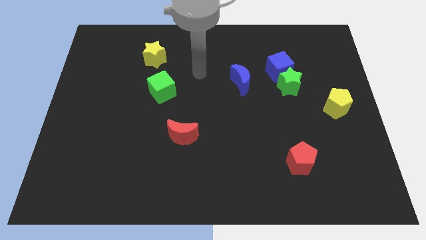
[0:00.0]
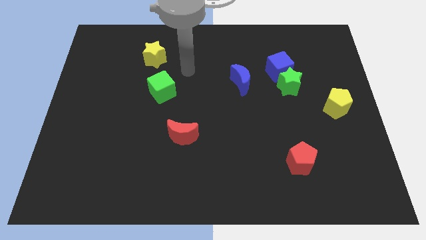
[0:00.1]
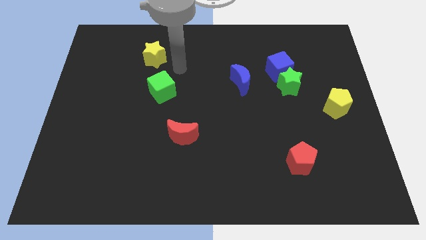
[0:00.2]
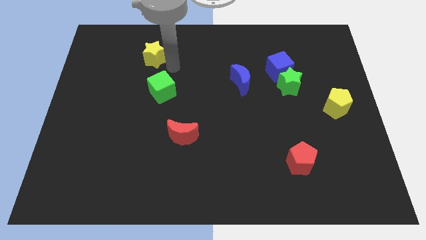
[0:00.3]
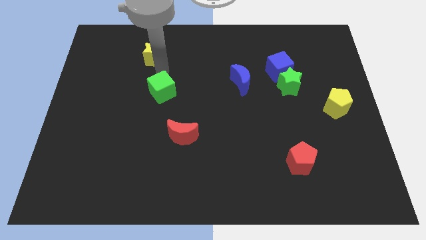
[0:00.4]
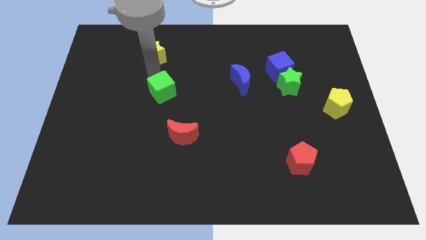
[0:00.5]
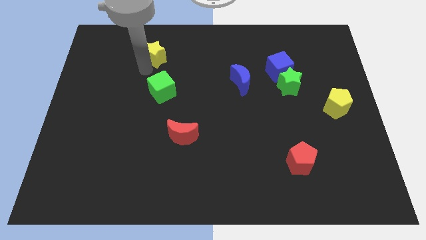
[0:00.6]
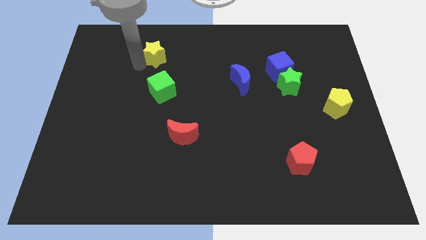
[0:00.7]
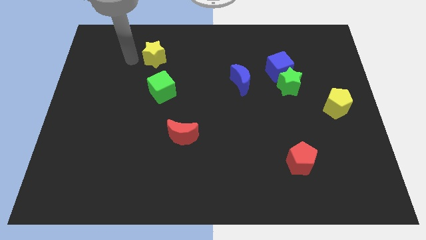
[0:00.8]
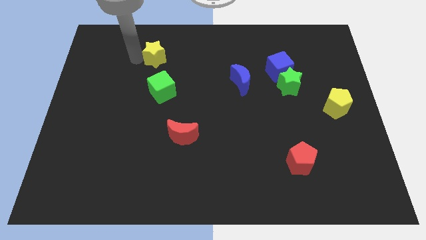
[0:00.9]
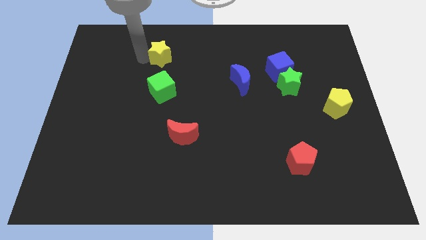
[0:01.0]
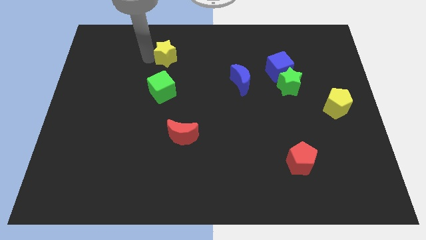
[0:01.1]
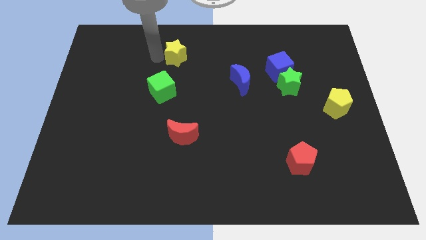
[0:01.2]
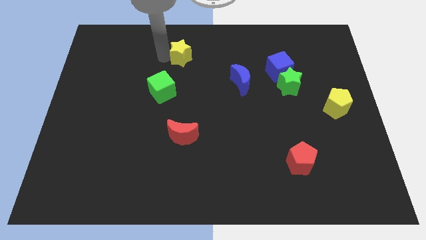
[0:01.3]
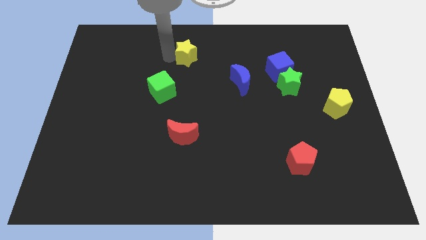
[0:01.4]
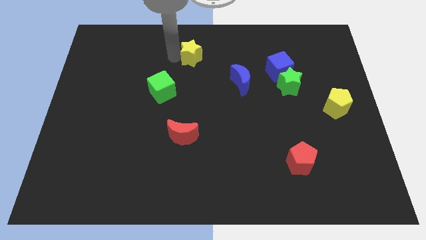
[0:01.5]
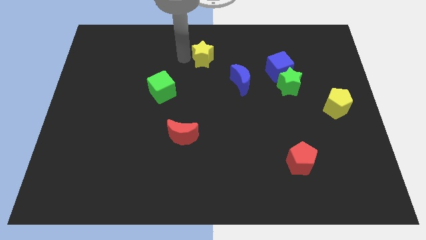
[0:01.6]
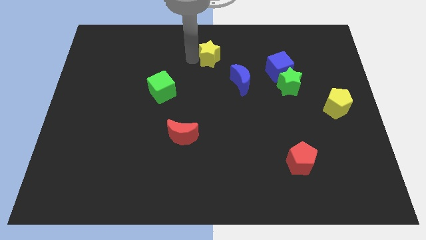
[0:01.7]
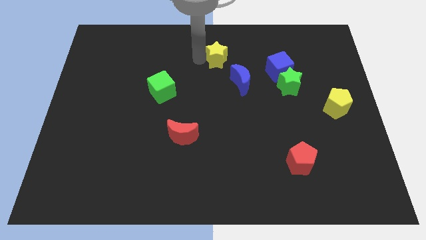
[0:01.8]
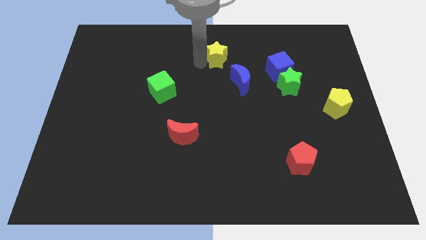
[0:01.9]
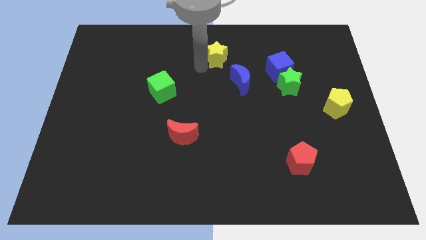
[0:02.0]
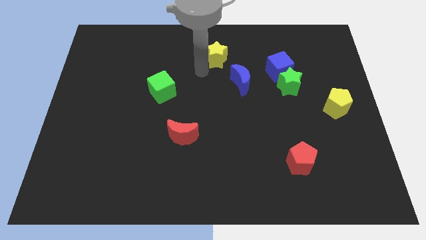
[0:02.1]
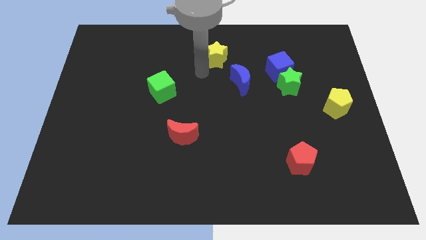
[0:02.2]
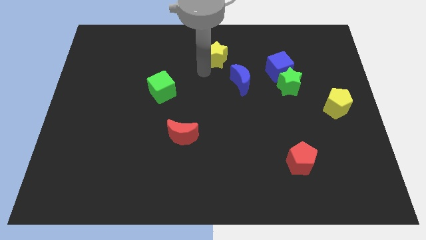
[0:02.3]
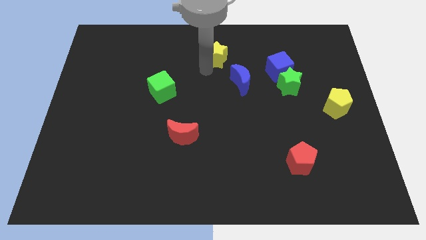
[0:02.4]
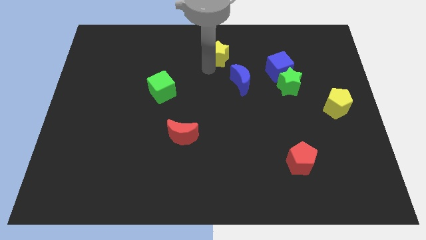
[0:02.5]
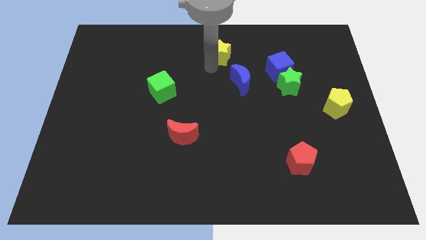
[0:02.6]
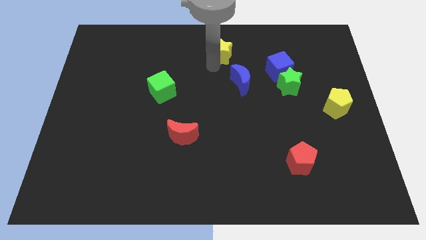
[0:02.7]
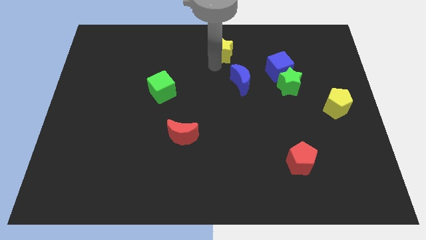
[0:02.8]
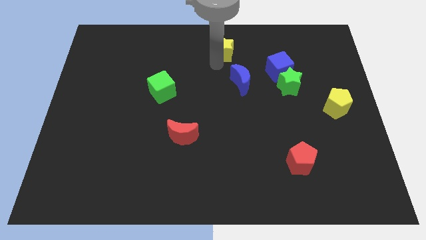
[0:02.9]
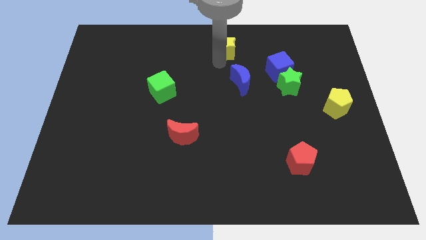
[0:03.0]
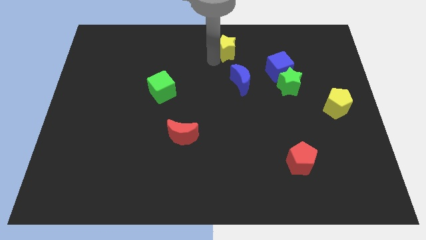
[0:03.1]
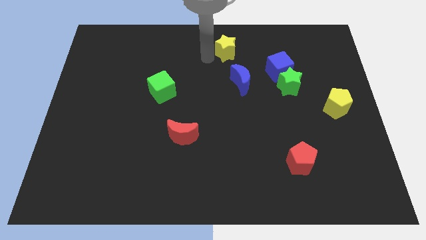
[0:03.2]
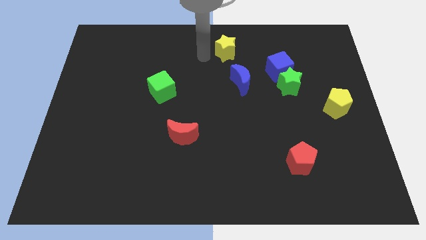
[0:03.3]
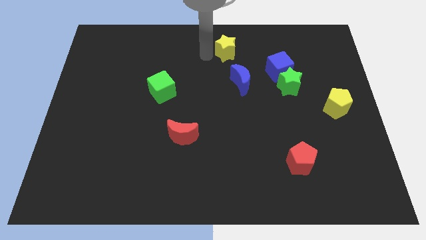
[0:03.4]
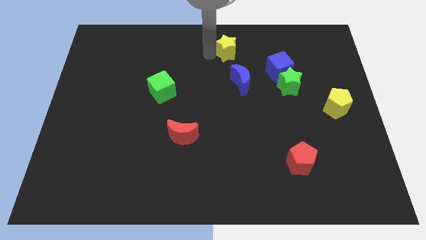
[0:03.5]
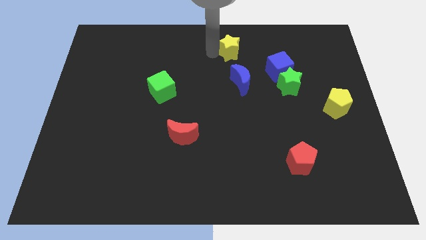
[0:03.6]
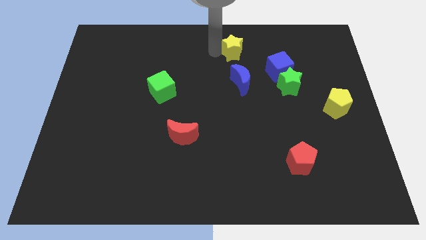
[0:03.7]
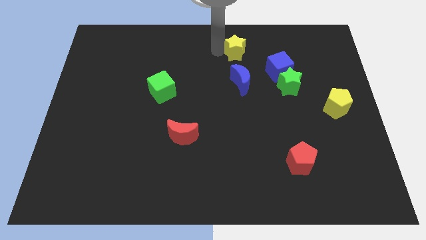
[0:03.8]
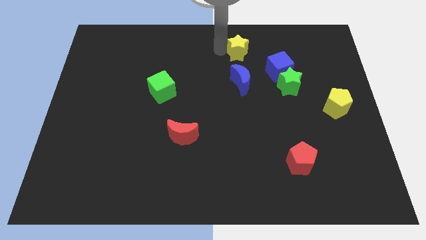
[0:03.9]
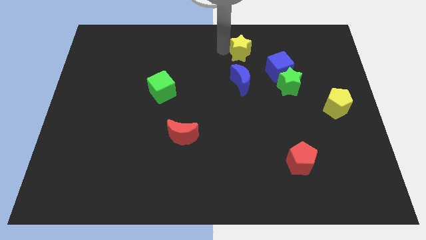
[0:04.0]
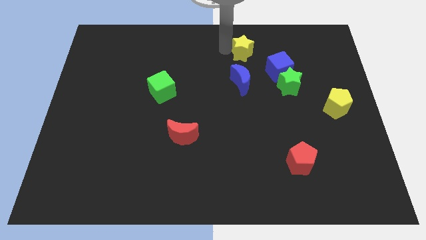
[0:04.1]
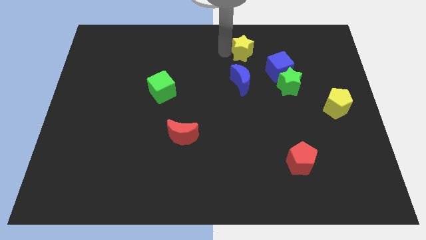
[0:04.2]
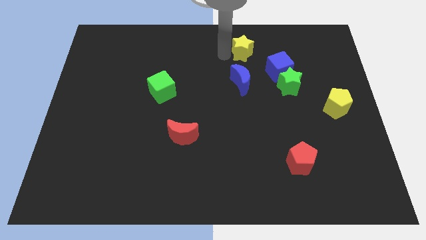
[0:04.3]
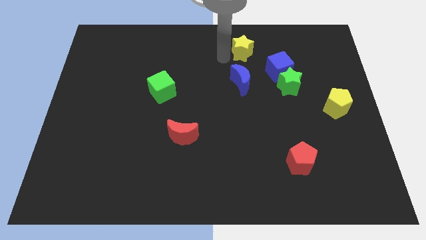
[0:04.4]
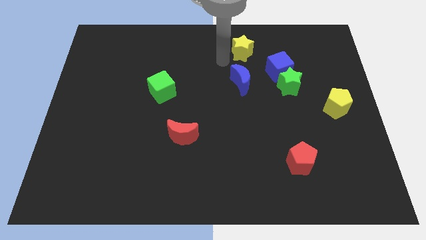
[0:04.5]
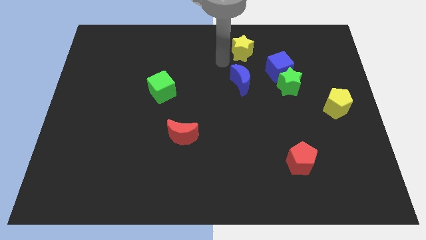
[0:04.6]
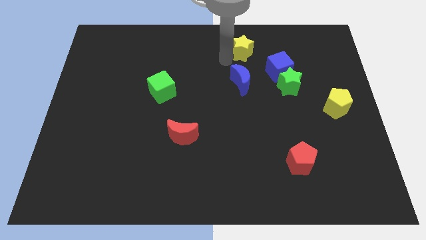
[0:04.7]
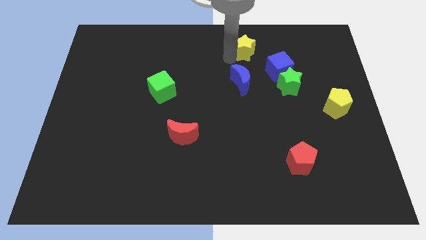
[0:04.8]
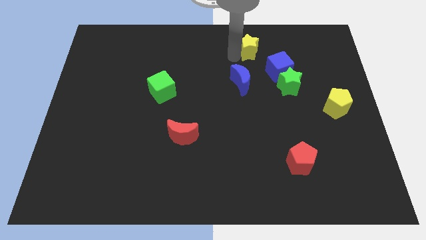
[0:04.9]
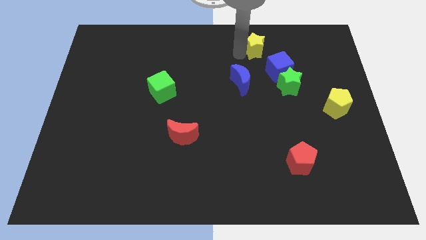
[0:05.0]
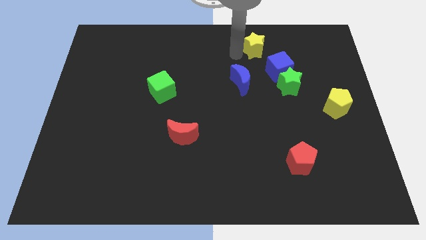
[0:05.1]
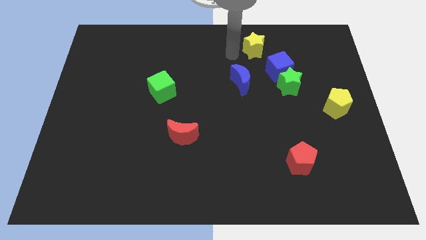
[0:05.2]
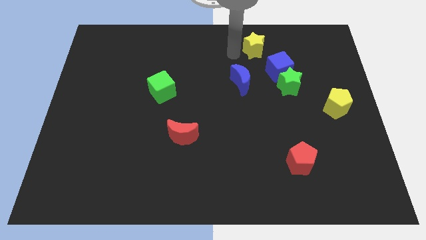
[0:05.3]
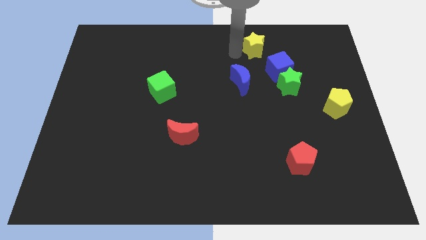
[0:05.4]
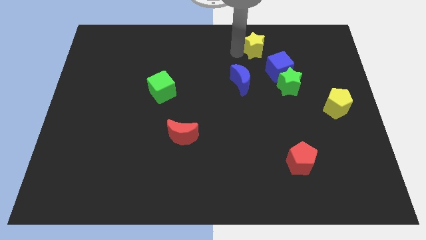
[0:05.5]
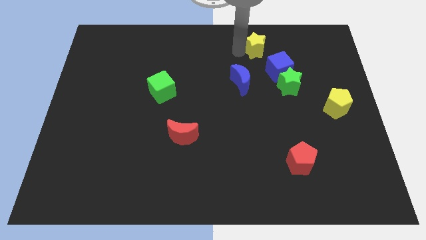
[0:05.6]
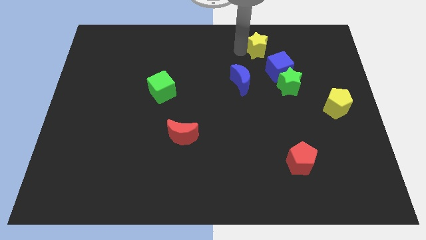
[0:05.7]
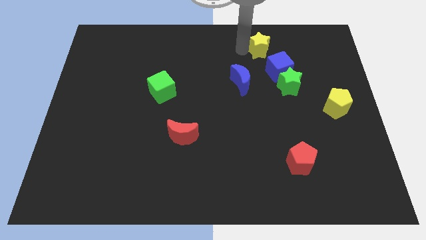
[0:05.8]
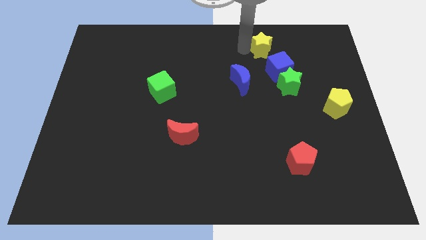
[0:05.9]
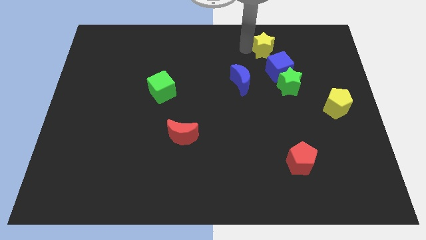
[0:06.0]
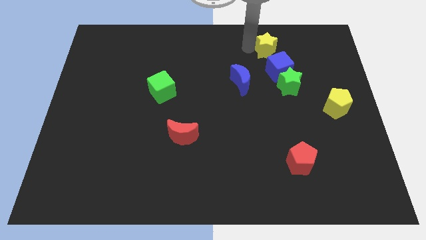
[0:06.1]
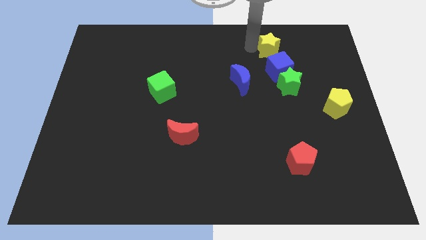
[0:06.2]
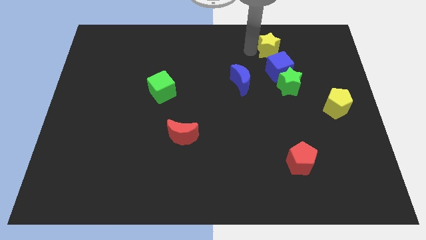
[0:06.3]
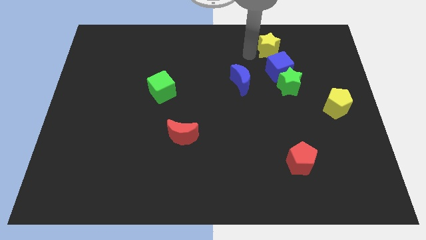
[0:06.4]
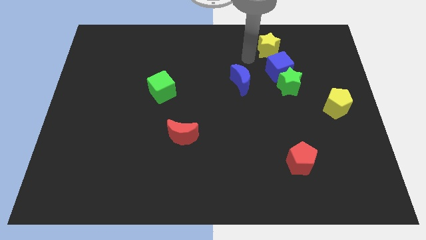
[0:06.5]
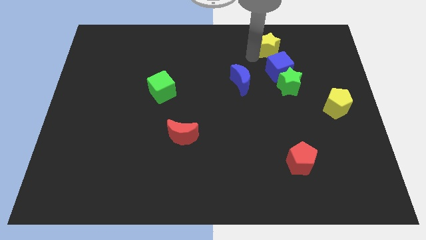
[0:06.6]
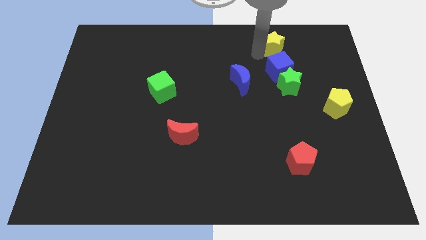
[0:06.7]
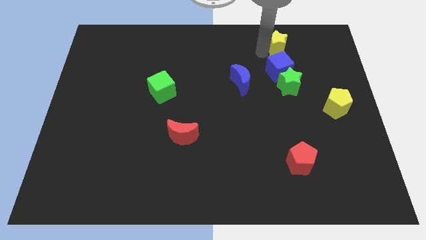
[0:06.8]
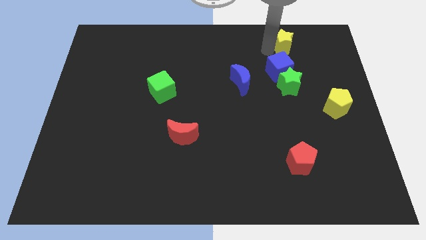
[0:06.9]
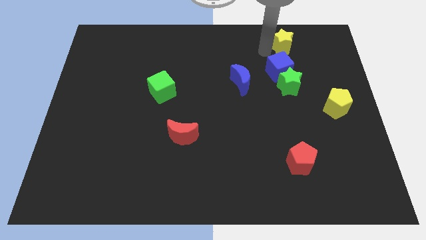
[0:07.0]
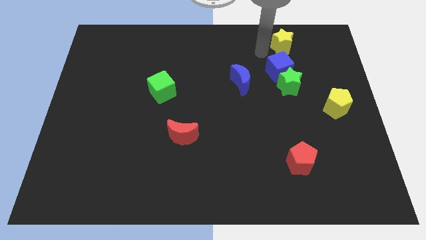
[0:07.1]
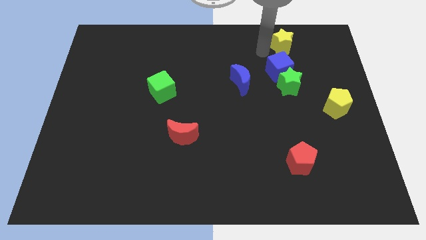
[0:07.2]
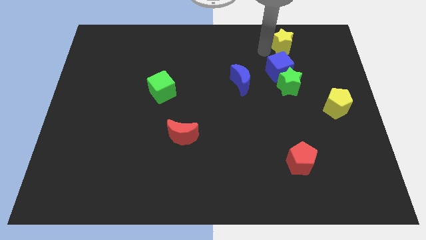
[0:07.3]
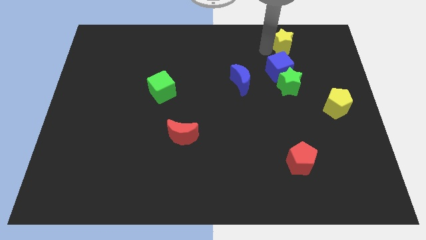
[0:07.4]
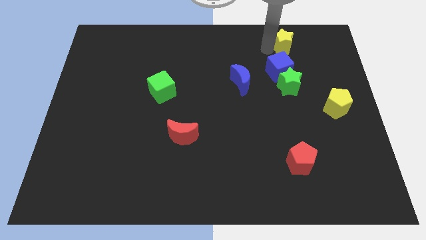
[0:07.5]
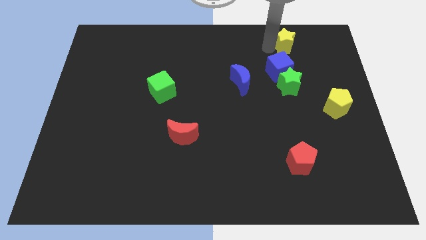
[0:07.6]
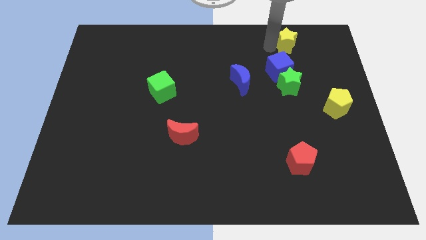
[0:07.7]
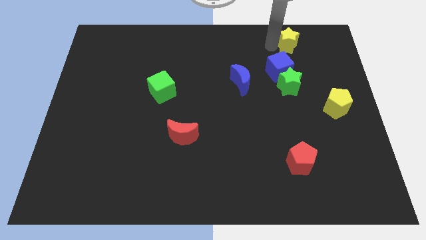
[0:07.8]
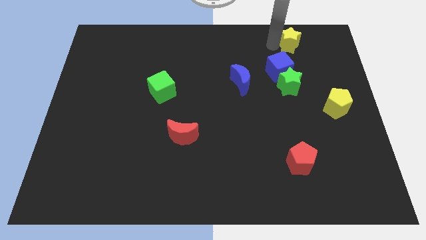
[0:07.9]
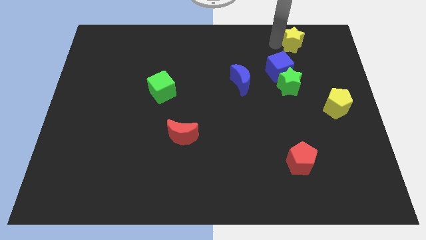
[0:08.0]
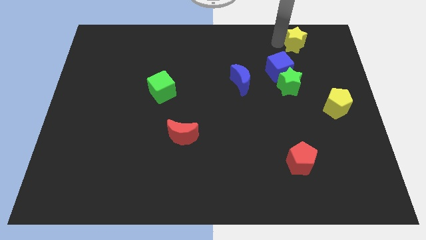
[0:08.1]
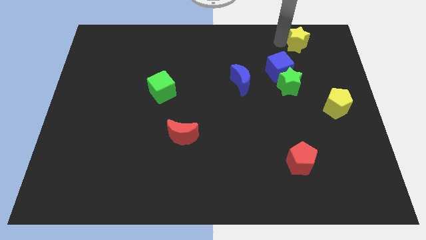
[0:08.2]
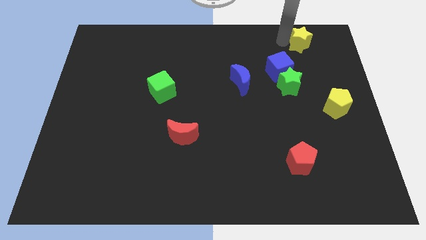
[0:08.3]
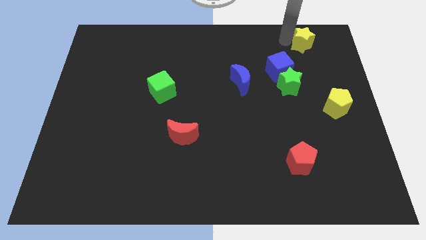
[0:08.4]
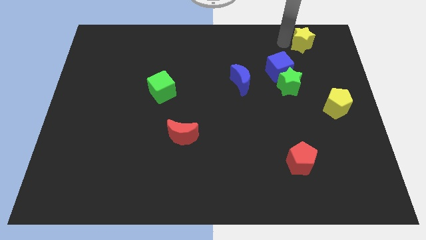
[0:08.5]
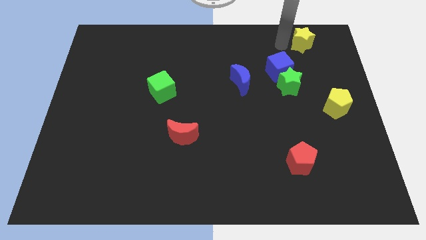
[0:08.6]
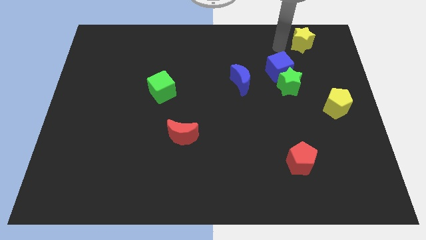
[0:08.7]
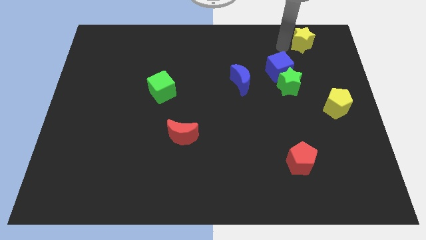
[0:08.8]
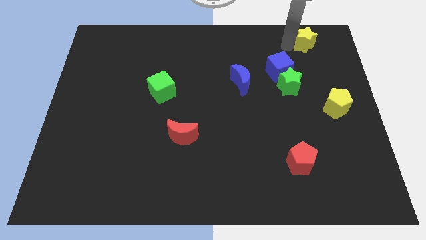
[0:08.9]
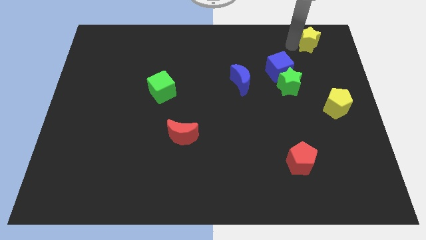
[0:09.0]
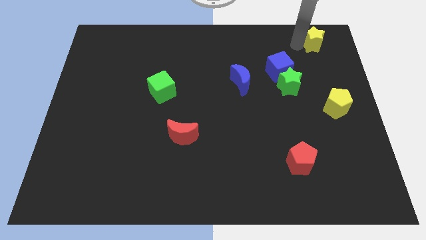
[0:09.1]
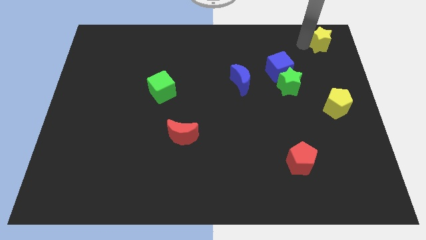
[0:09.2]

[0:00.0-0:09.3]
slide the yellow star to the top right of the board
